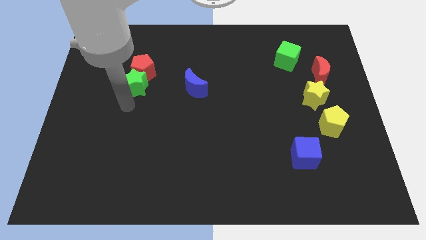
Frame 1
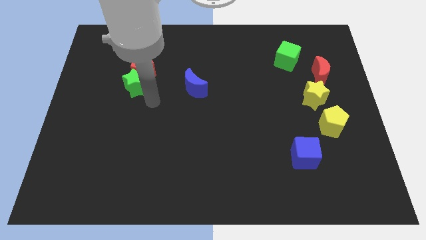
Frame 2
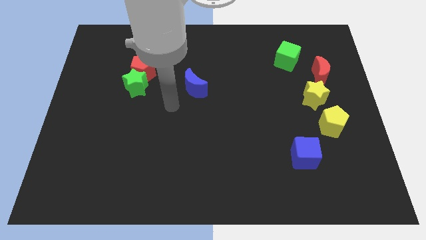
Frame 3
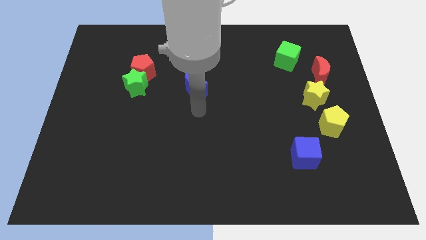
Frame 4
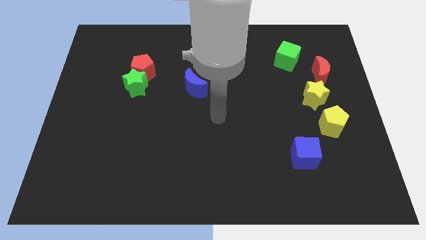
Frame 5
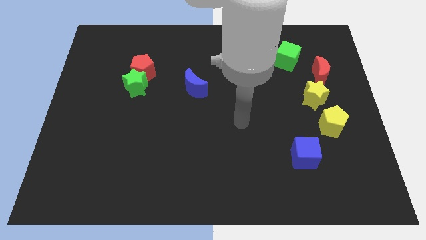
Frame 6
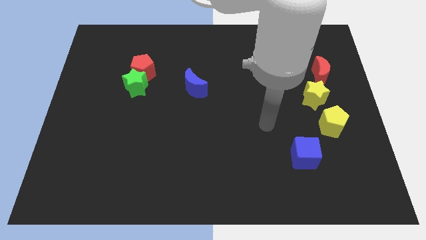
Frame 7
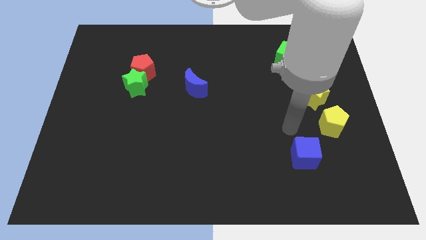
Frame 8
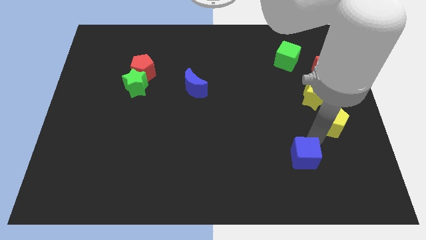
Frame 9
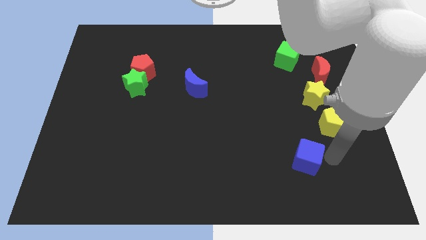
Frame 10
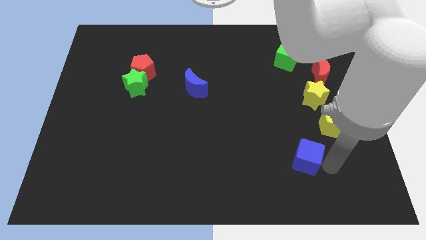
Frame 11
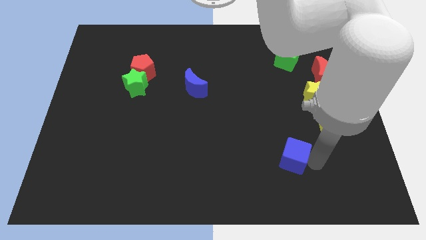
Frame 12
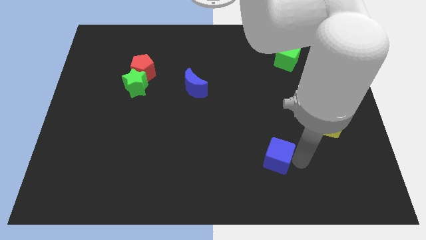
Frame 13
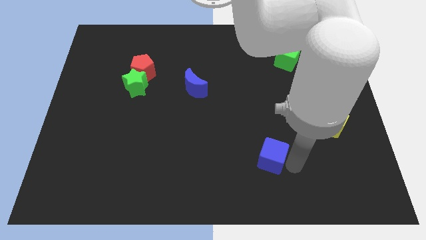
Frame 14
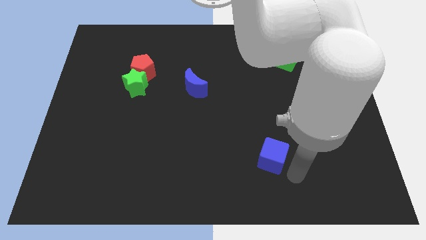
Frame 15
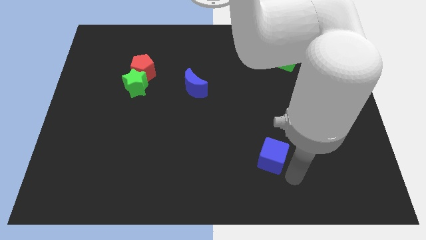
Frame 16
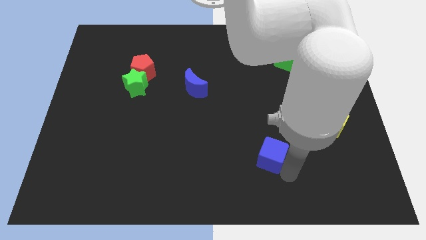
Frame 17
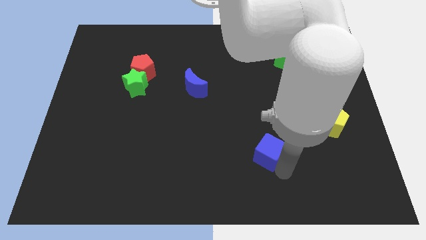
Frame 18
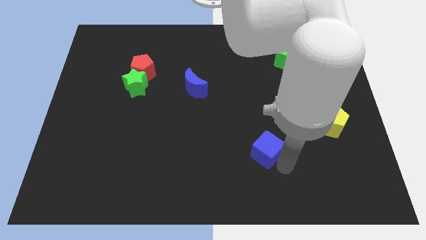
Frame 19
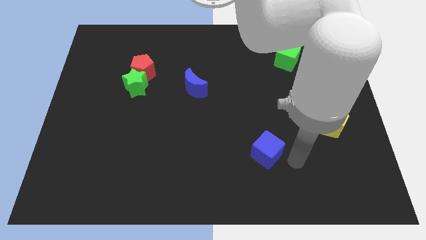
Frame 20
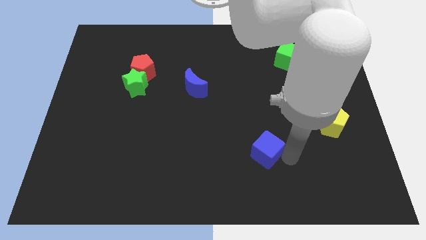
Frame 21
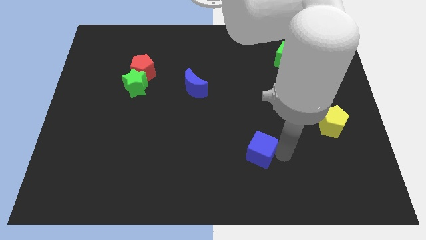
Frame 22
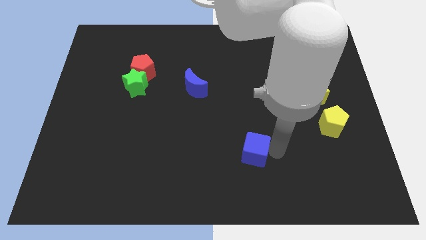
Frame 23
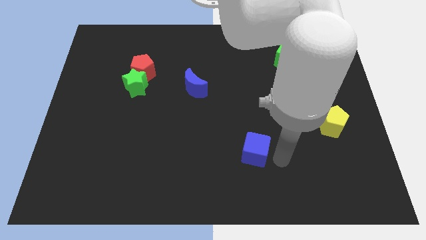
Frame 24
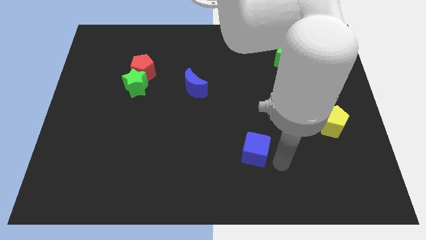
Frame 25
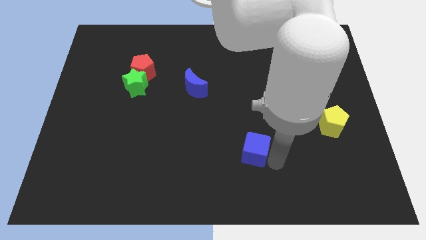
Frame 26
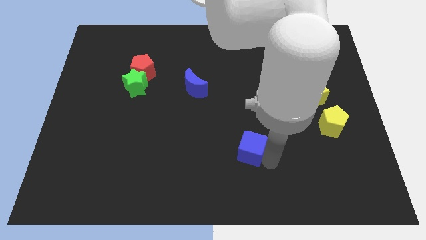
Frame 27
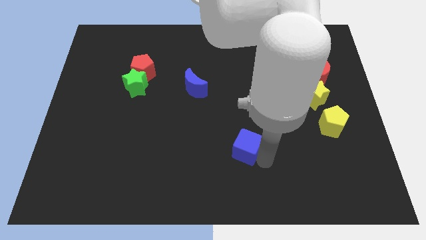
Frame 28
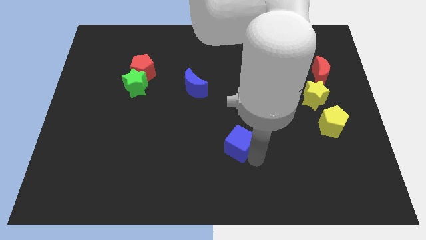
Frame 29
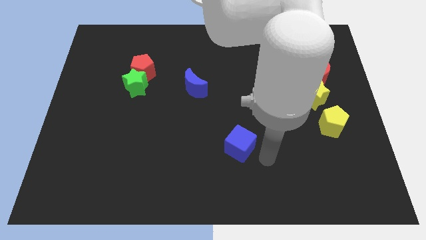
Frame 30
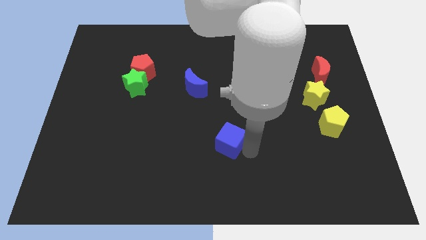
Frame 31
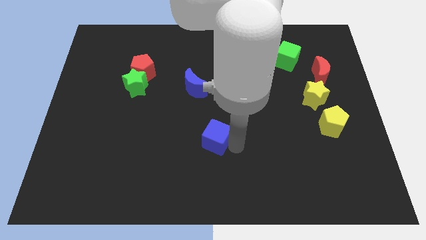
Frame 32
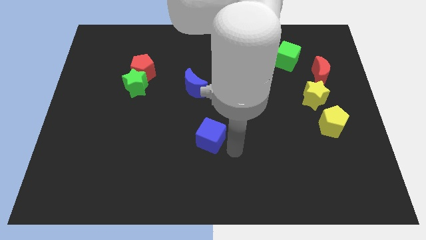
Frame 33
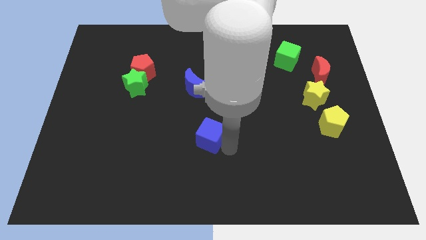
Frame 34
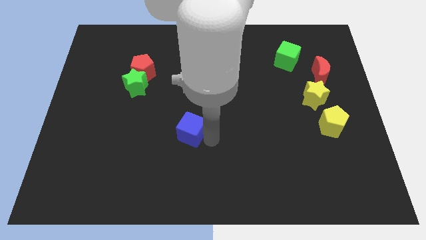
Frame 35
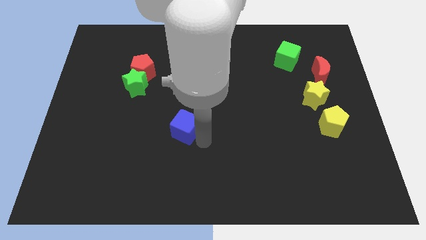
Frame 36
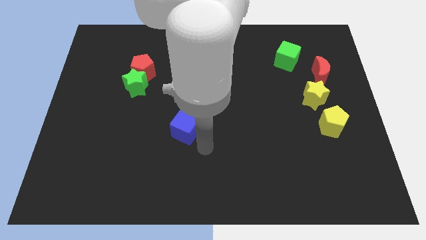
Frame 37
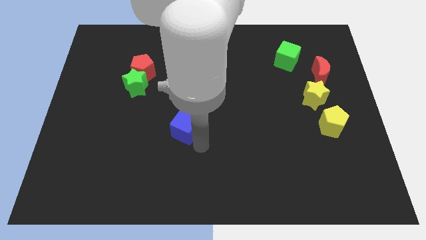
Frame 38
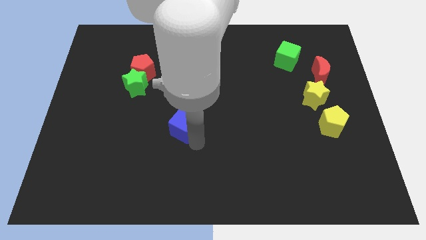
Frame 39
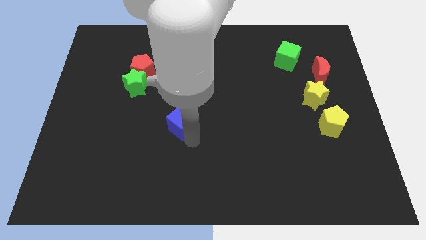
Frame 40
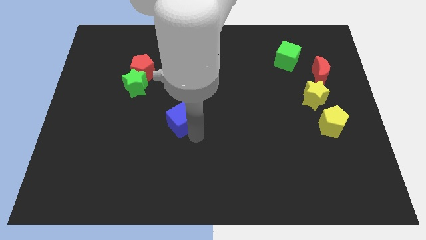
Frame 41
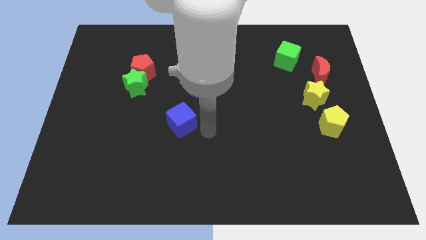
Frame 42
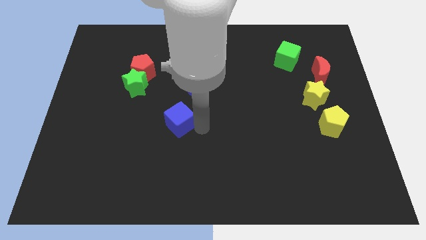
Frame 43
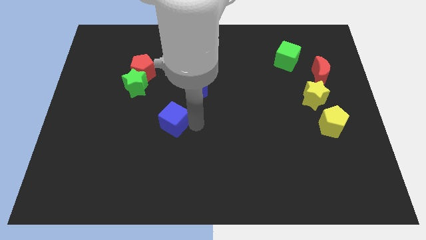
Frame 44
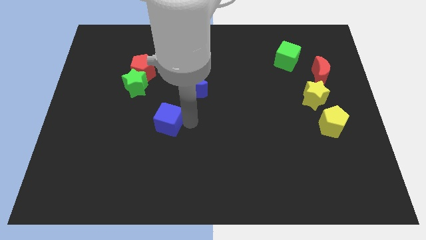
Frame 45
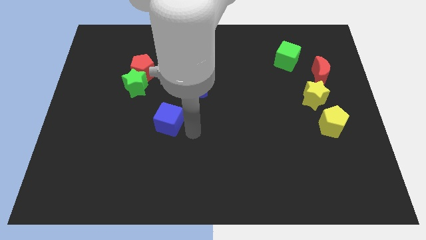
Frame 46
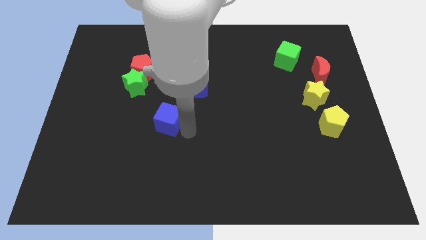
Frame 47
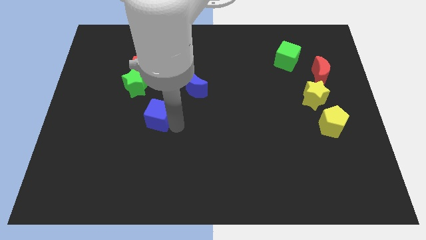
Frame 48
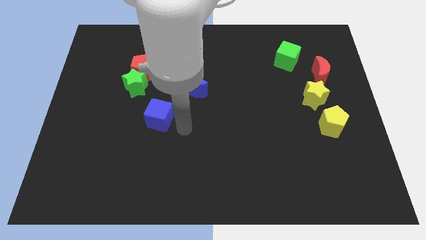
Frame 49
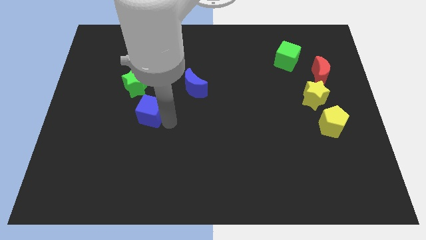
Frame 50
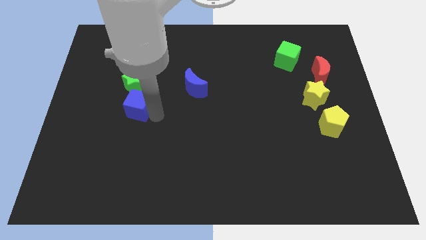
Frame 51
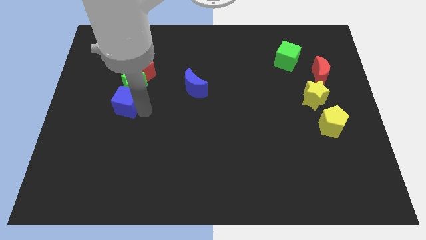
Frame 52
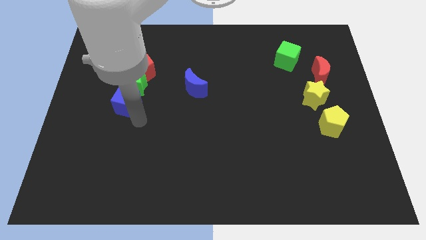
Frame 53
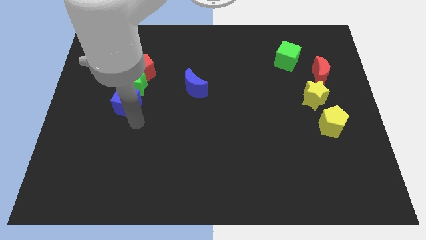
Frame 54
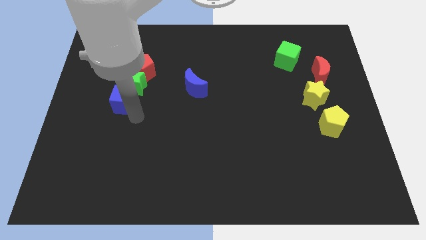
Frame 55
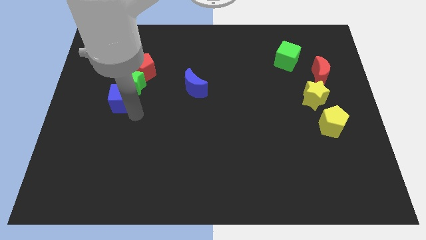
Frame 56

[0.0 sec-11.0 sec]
move the blue cube to the bottom left side of the red pentagon

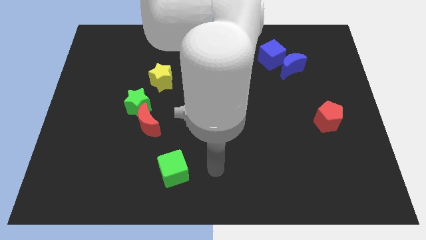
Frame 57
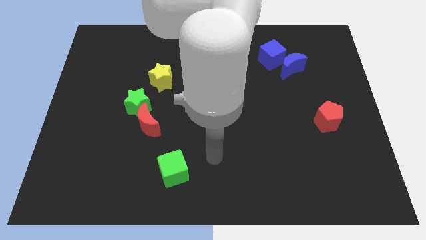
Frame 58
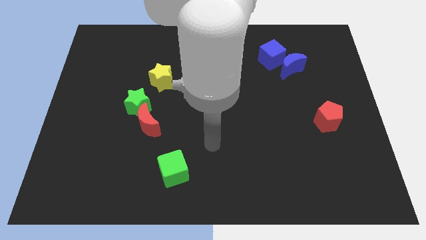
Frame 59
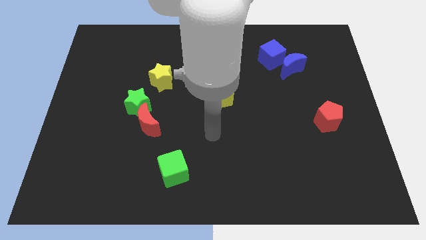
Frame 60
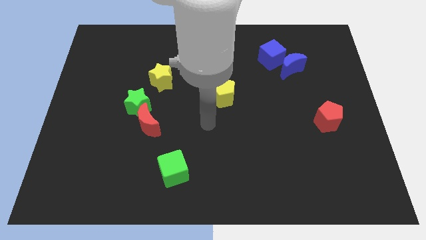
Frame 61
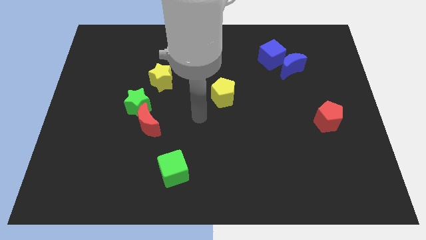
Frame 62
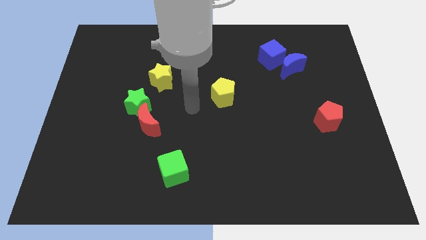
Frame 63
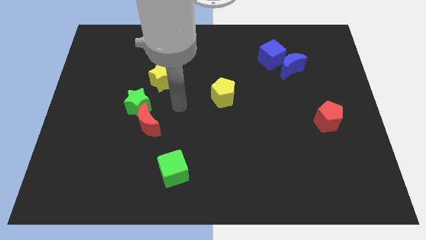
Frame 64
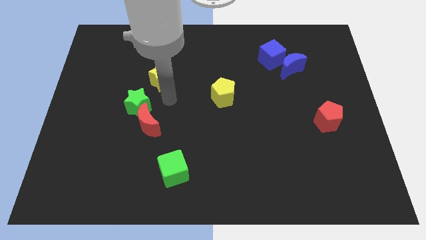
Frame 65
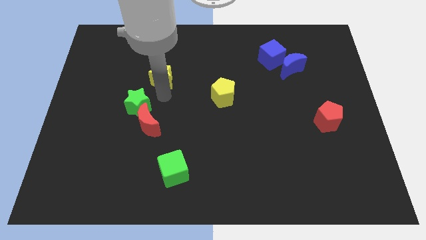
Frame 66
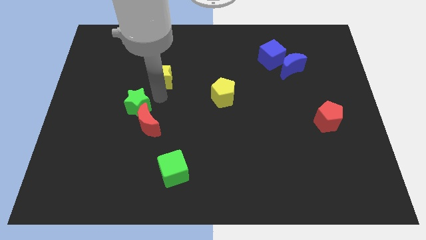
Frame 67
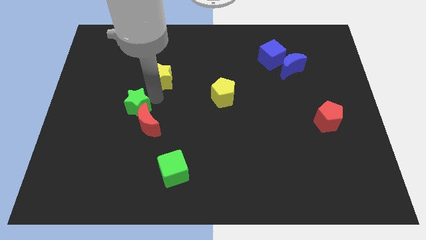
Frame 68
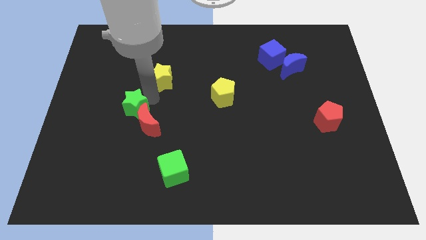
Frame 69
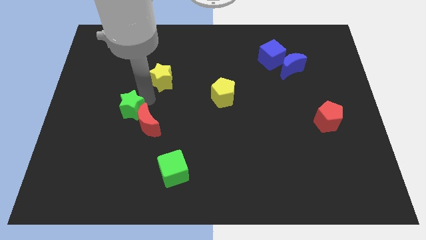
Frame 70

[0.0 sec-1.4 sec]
put the green star to the left of the red moon
